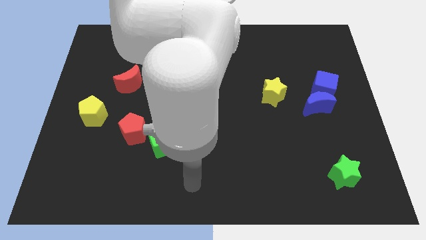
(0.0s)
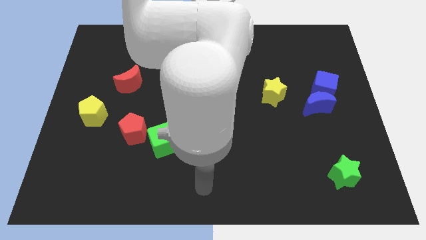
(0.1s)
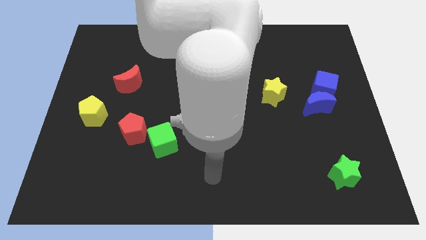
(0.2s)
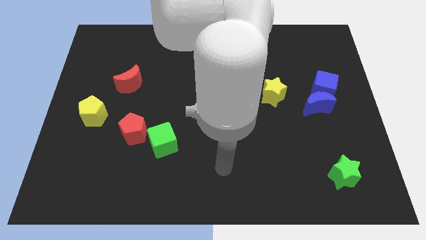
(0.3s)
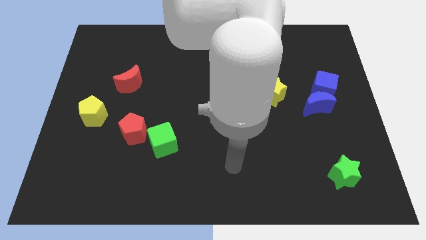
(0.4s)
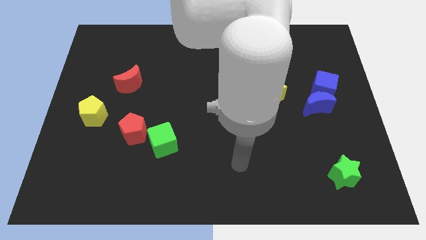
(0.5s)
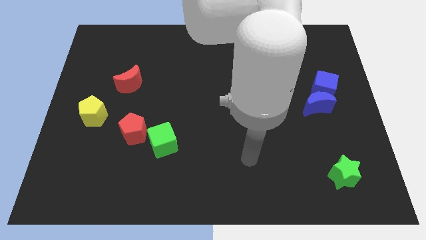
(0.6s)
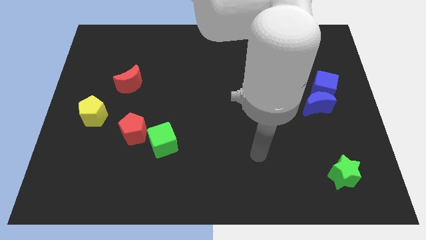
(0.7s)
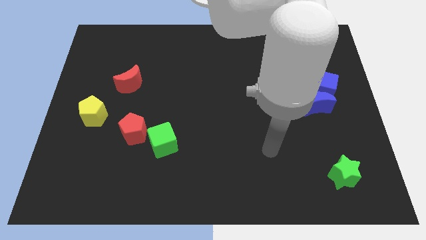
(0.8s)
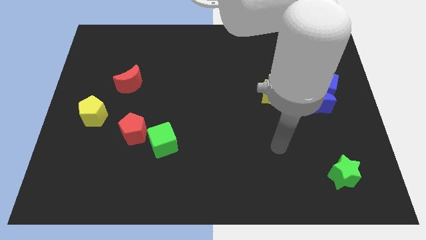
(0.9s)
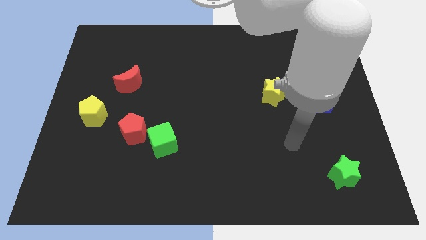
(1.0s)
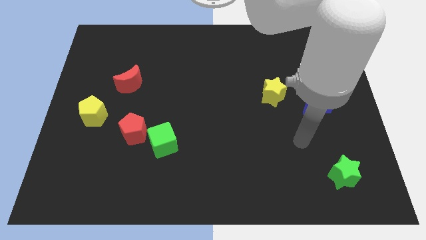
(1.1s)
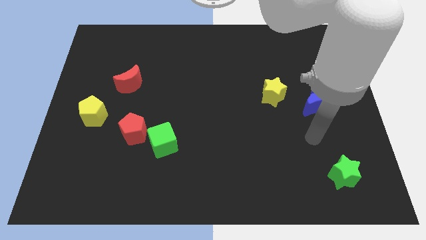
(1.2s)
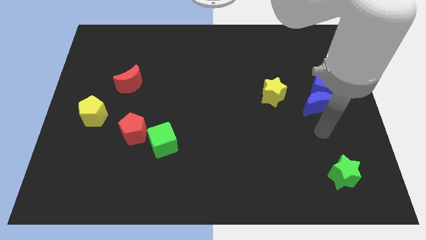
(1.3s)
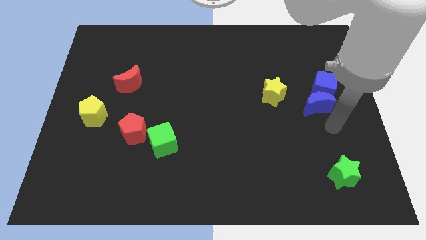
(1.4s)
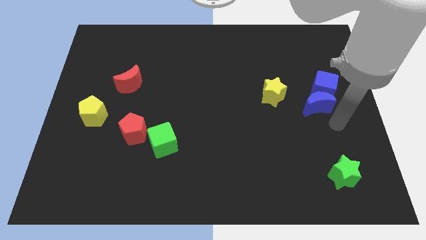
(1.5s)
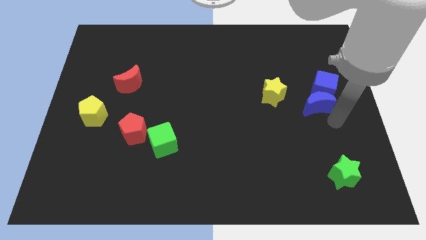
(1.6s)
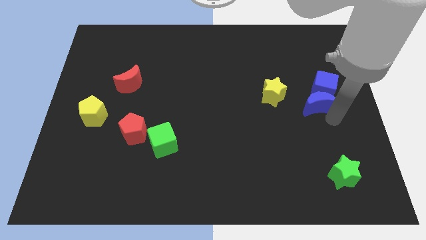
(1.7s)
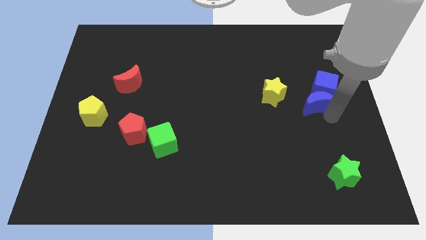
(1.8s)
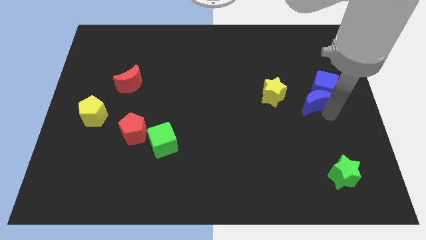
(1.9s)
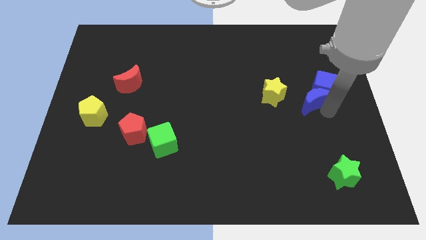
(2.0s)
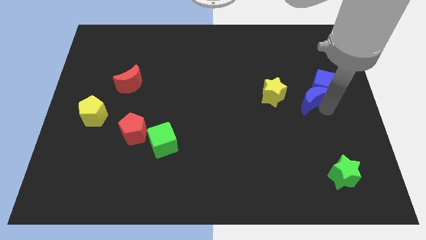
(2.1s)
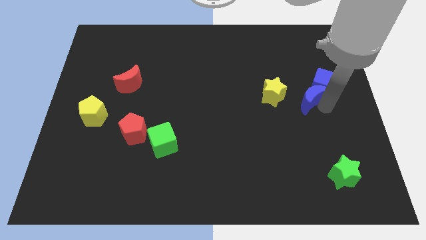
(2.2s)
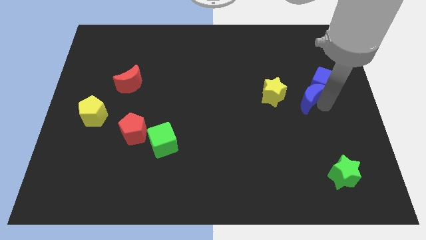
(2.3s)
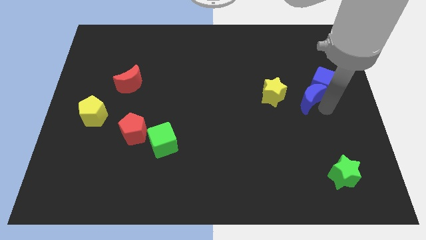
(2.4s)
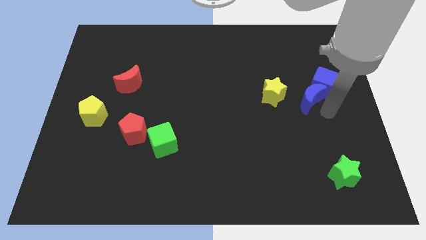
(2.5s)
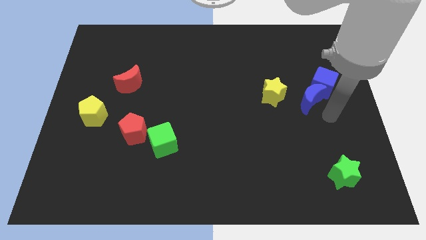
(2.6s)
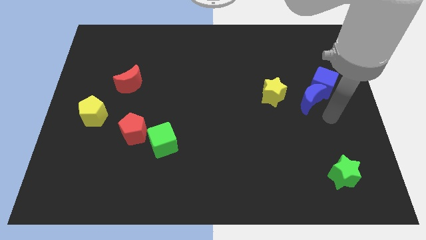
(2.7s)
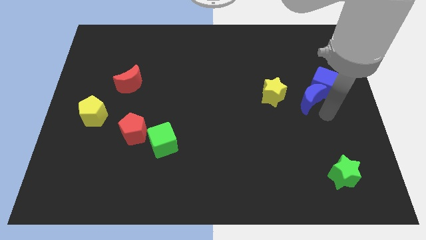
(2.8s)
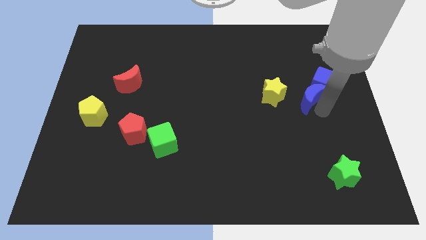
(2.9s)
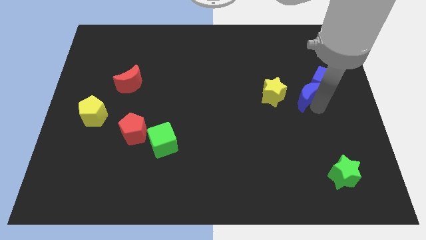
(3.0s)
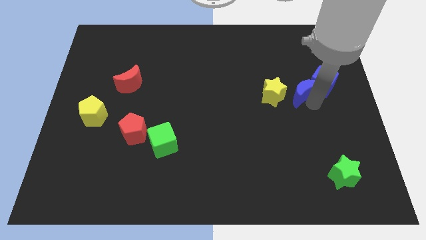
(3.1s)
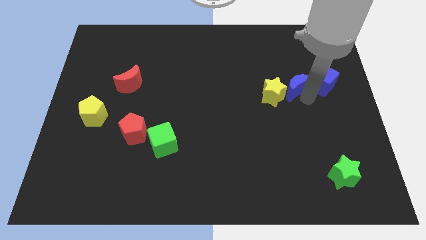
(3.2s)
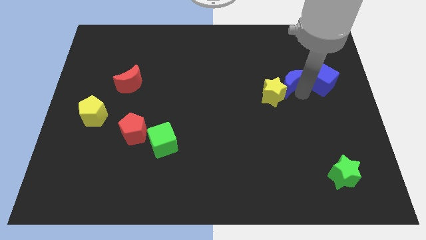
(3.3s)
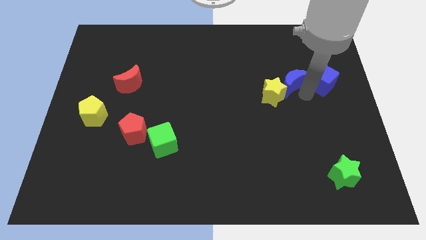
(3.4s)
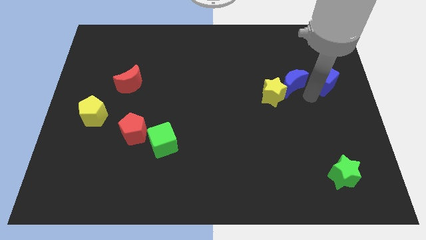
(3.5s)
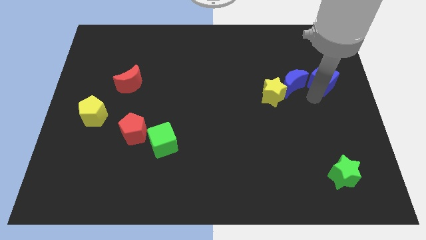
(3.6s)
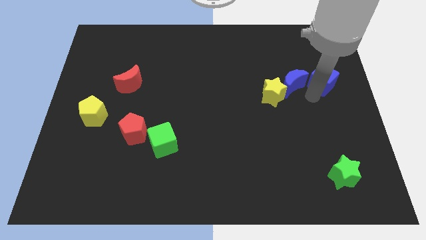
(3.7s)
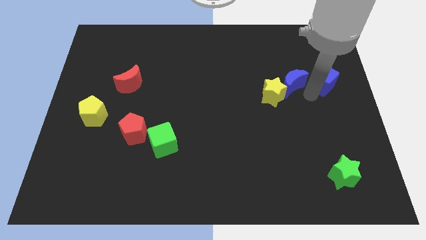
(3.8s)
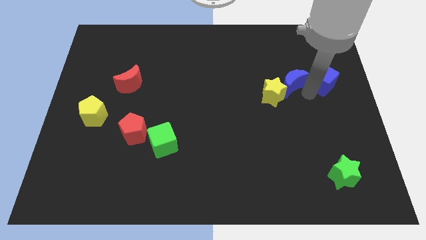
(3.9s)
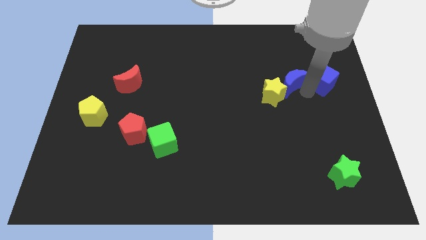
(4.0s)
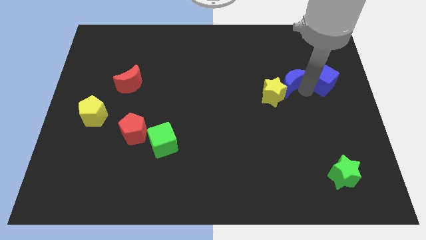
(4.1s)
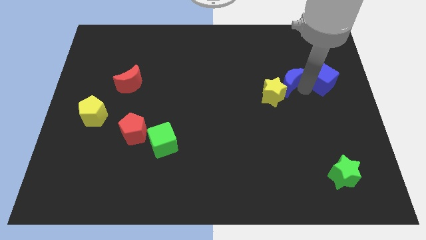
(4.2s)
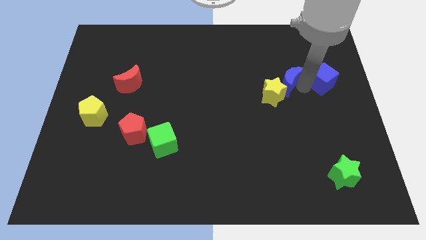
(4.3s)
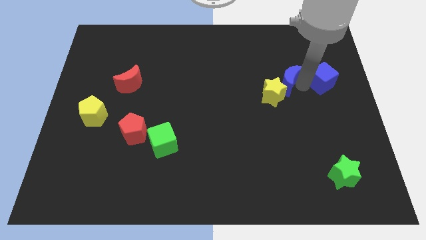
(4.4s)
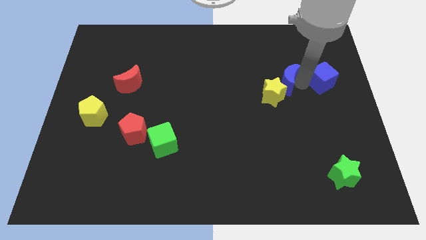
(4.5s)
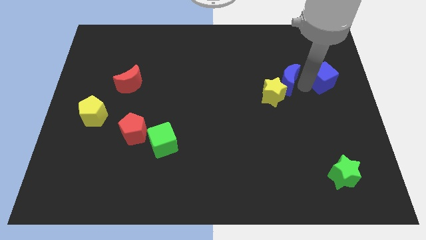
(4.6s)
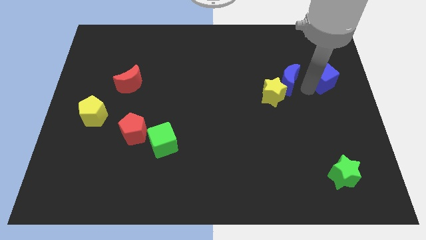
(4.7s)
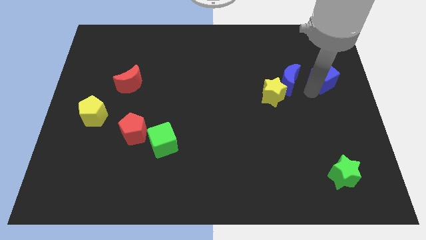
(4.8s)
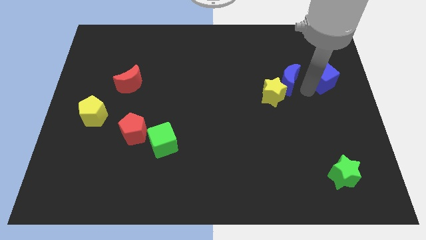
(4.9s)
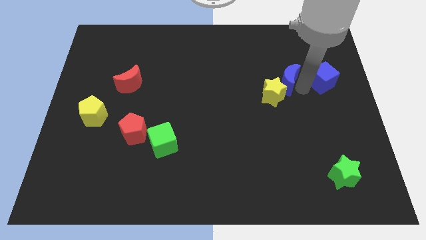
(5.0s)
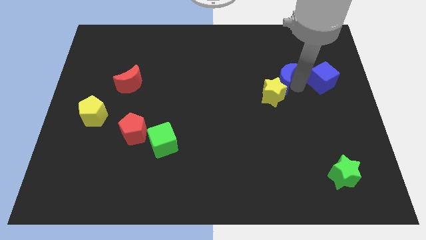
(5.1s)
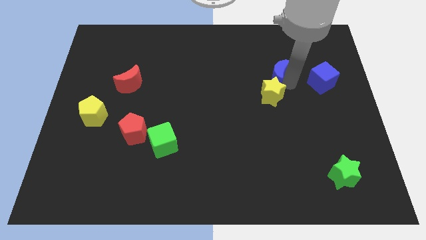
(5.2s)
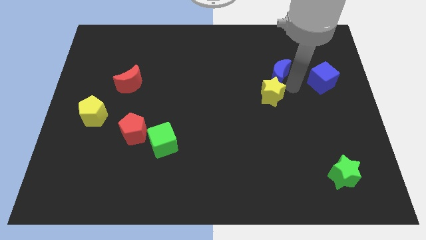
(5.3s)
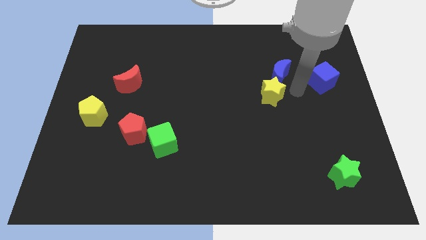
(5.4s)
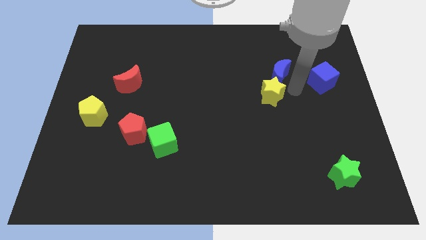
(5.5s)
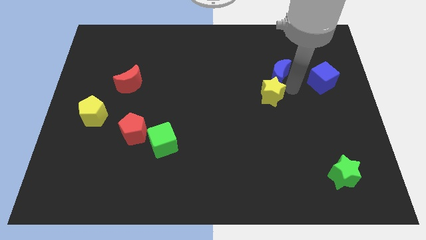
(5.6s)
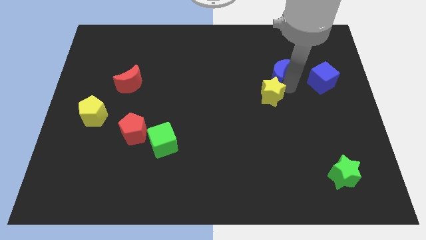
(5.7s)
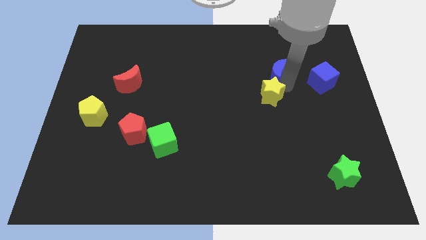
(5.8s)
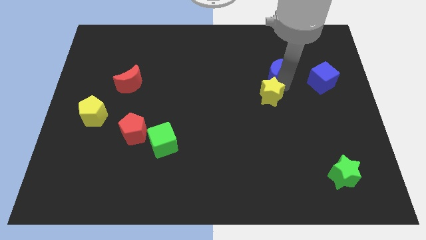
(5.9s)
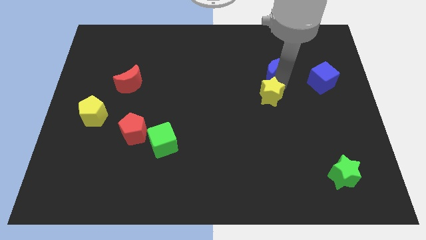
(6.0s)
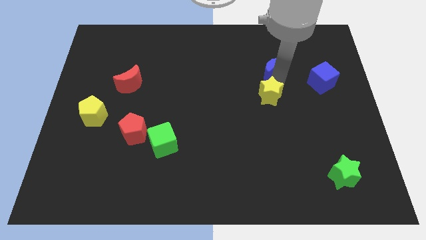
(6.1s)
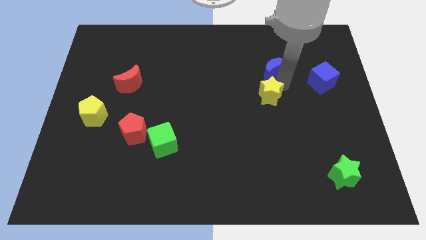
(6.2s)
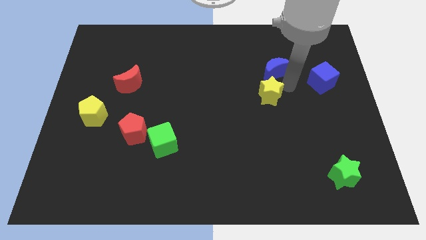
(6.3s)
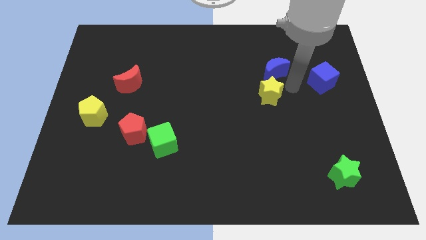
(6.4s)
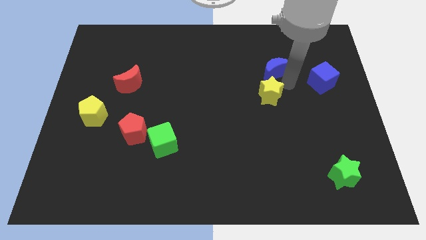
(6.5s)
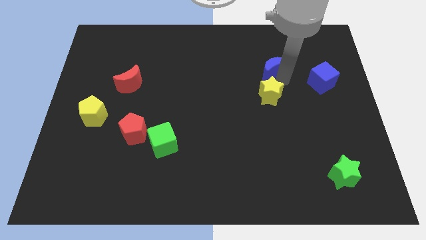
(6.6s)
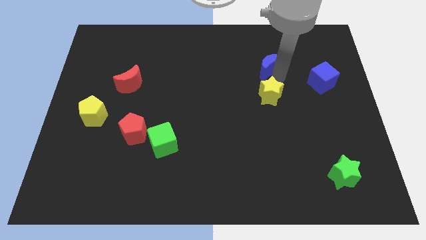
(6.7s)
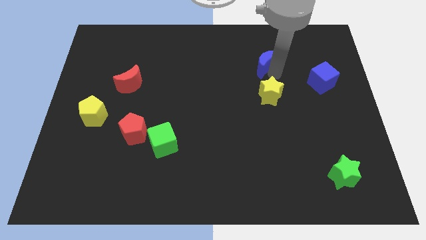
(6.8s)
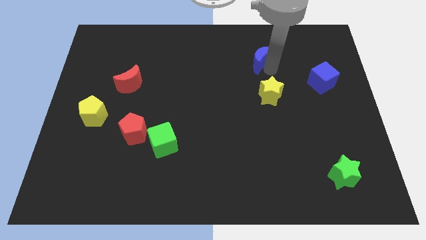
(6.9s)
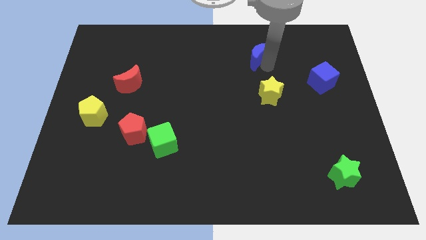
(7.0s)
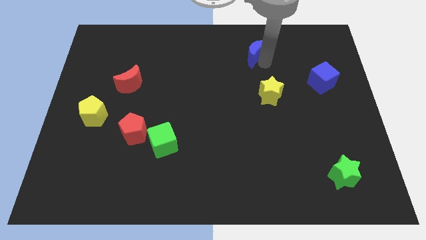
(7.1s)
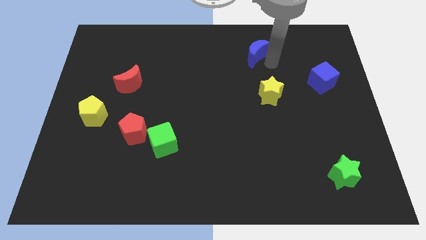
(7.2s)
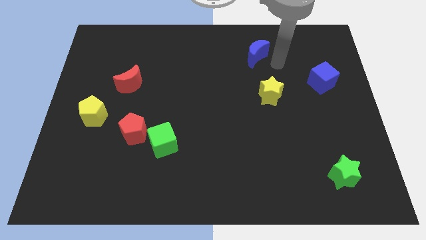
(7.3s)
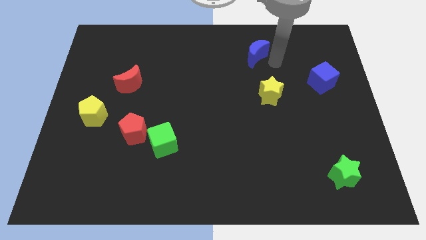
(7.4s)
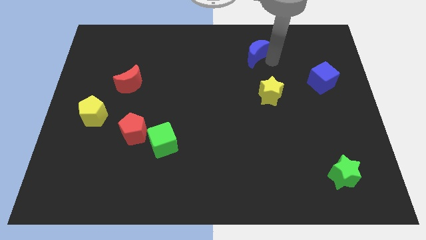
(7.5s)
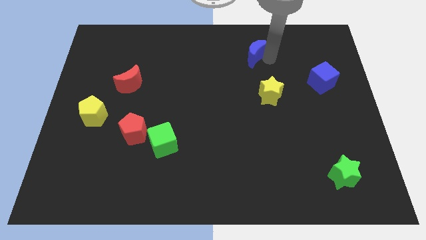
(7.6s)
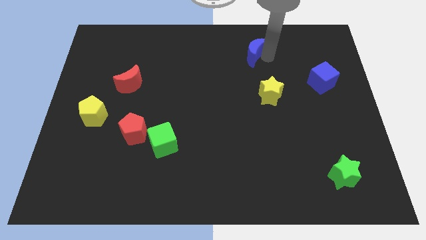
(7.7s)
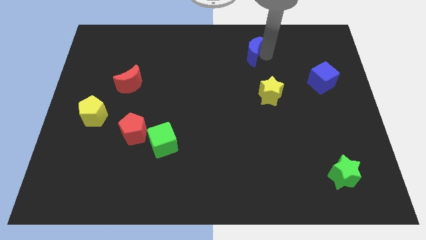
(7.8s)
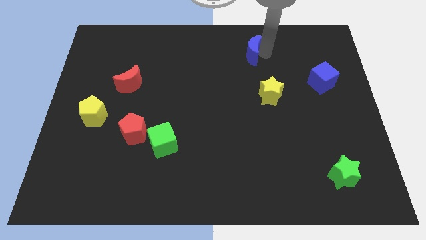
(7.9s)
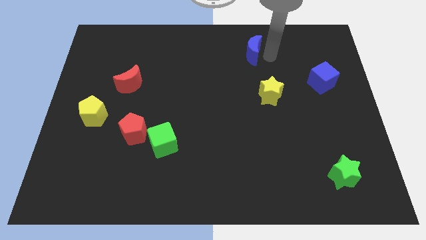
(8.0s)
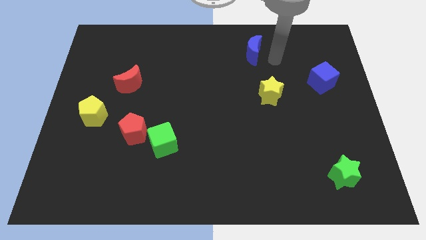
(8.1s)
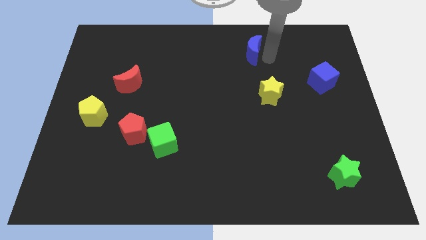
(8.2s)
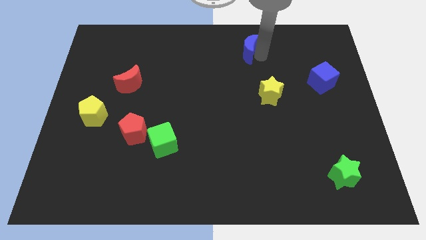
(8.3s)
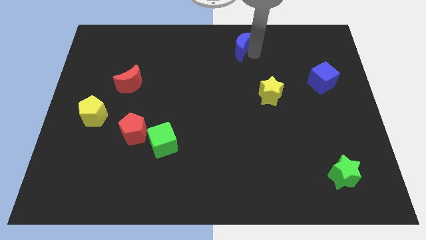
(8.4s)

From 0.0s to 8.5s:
slide the blue moon to the towards your base
